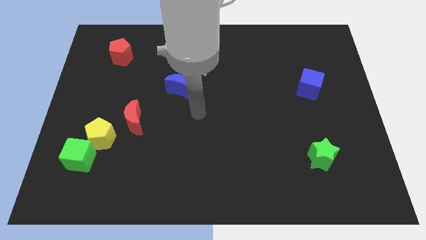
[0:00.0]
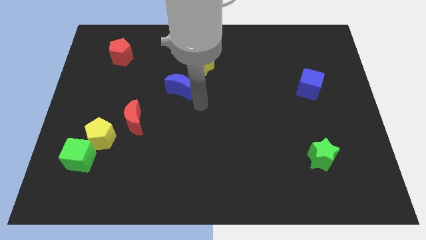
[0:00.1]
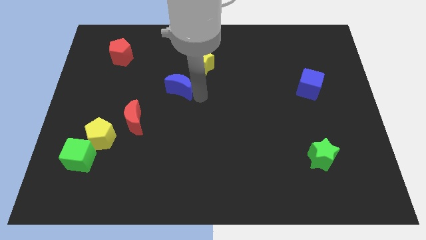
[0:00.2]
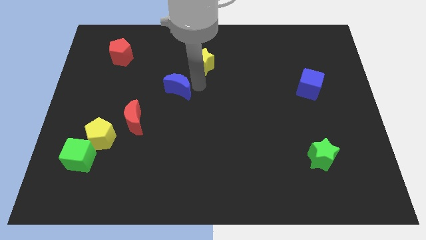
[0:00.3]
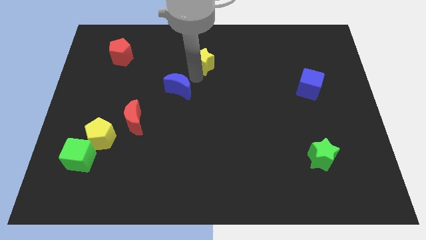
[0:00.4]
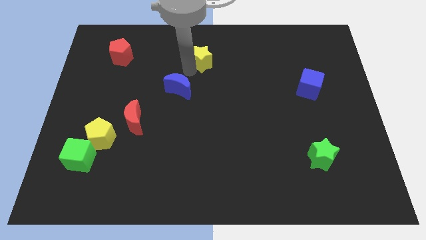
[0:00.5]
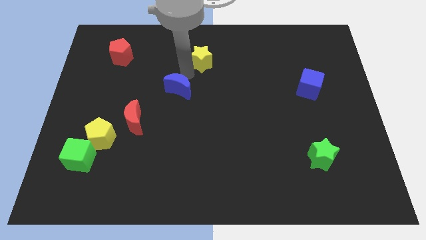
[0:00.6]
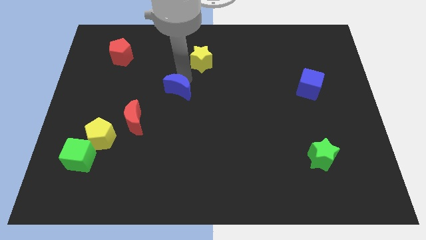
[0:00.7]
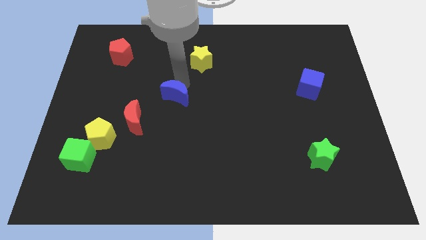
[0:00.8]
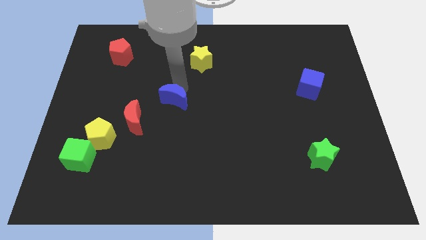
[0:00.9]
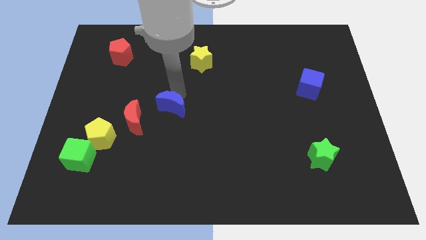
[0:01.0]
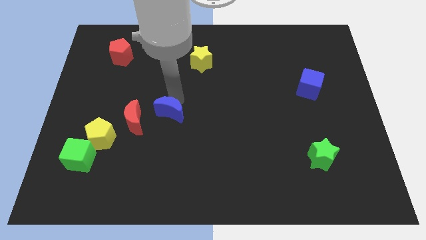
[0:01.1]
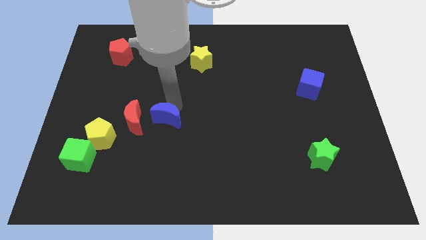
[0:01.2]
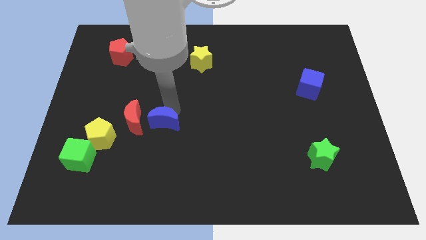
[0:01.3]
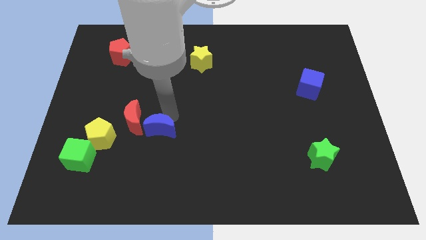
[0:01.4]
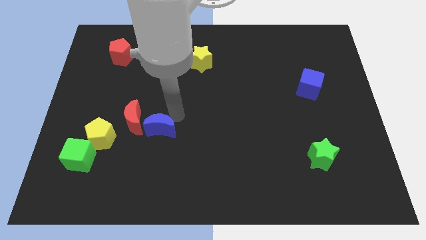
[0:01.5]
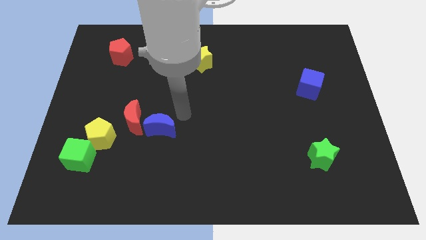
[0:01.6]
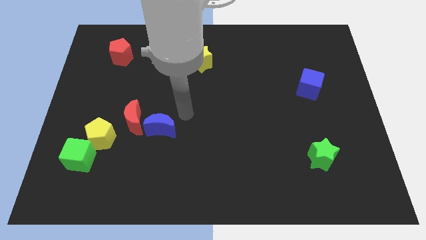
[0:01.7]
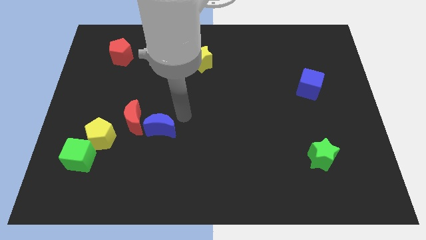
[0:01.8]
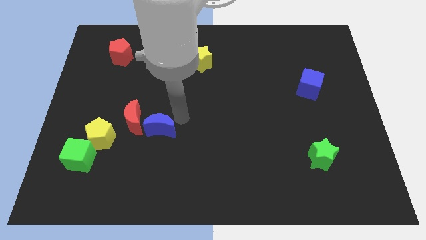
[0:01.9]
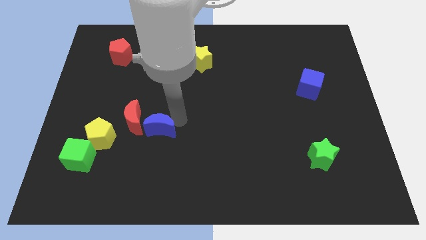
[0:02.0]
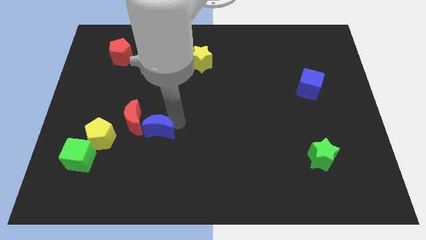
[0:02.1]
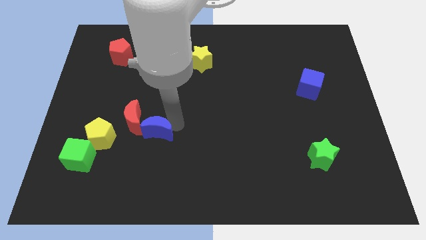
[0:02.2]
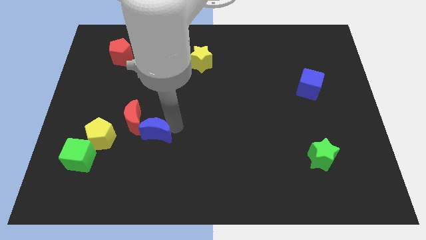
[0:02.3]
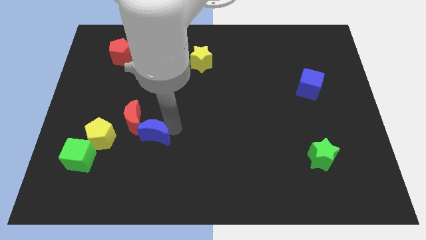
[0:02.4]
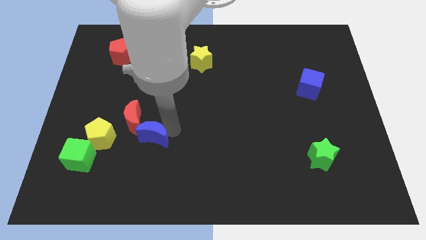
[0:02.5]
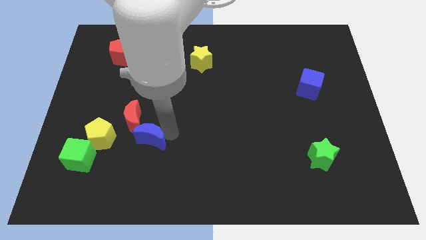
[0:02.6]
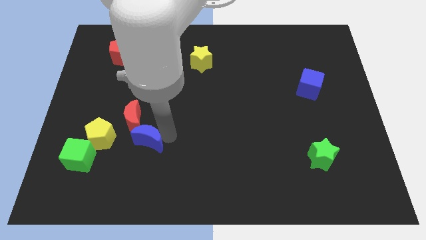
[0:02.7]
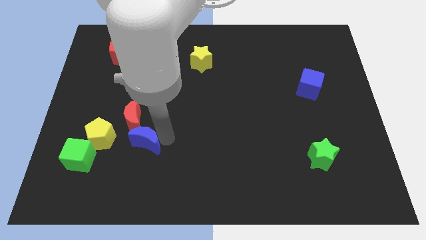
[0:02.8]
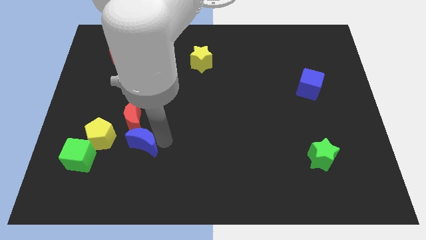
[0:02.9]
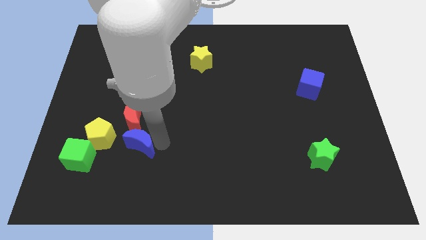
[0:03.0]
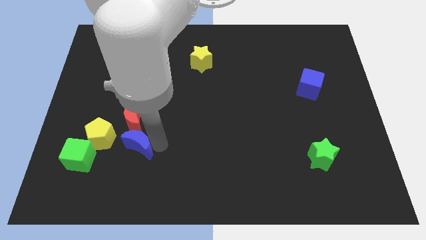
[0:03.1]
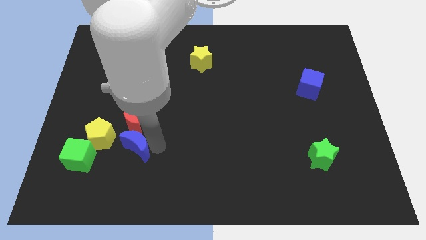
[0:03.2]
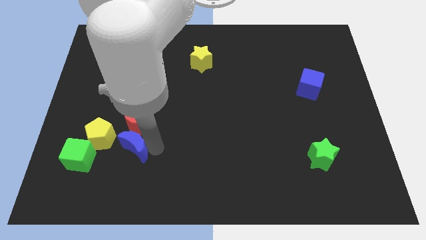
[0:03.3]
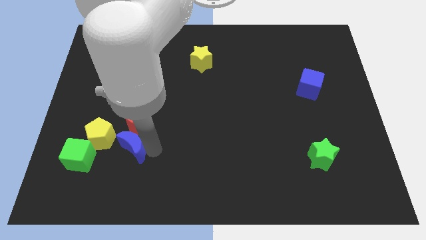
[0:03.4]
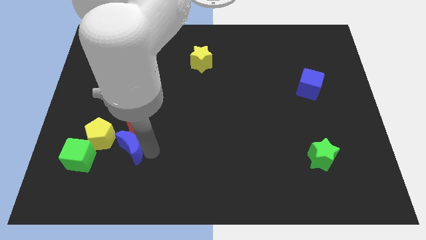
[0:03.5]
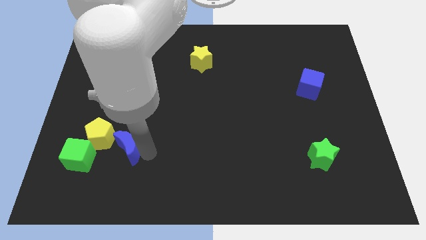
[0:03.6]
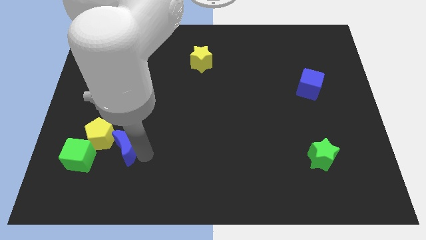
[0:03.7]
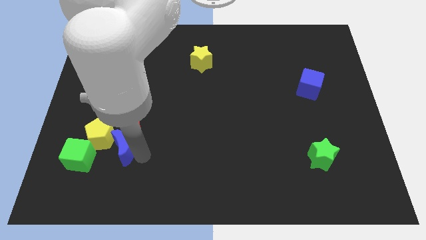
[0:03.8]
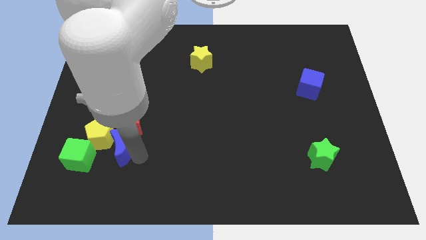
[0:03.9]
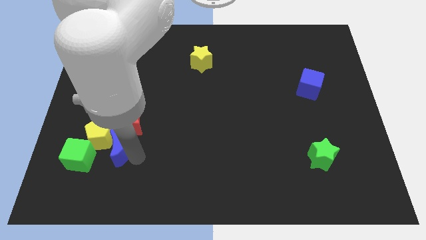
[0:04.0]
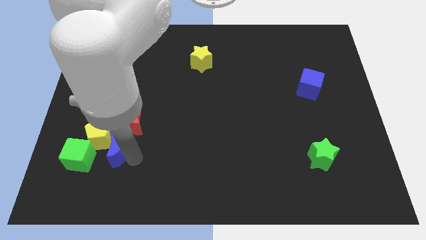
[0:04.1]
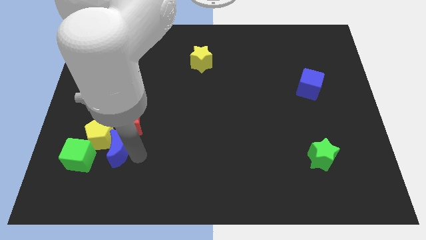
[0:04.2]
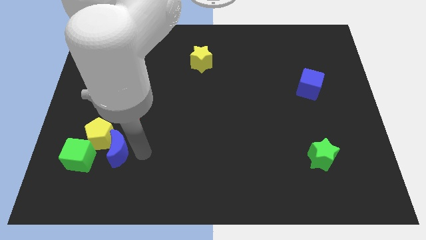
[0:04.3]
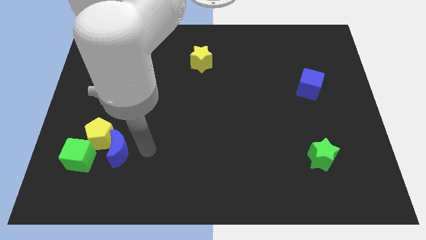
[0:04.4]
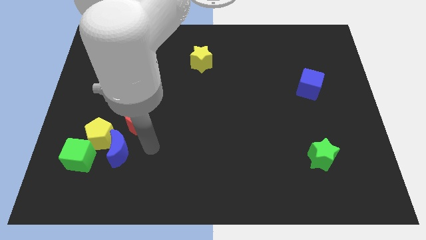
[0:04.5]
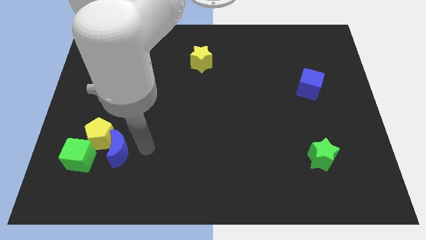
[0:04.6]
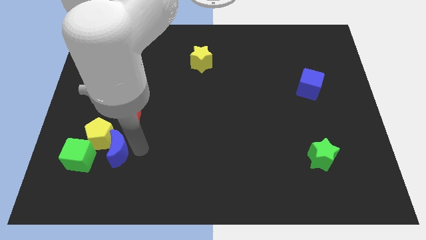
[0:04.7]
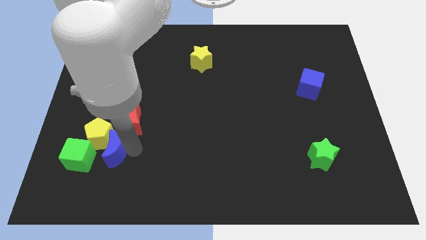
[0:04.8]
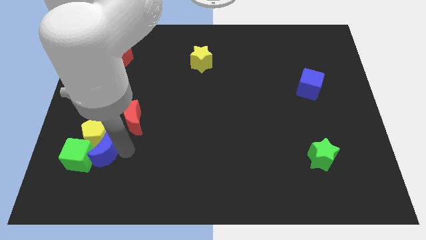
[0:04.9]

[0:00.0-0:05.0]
move the blue moon close to the green cube

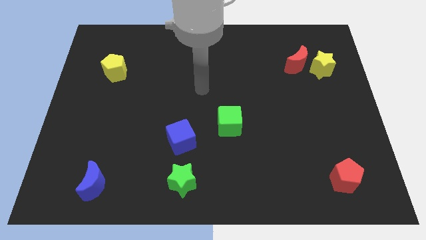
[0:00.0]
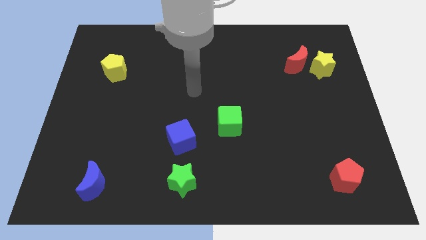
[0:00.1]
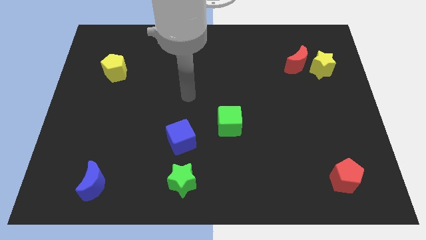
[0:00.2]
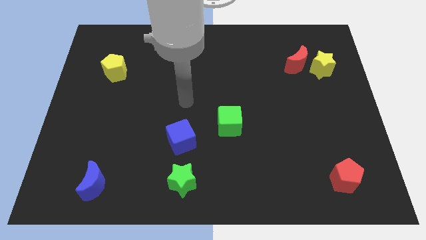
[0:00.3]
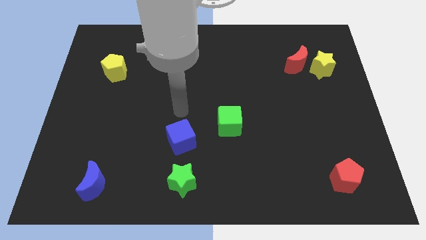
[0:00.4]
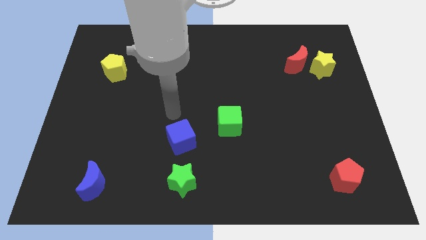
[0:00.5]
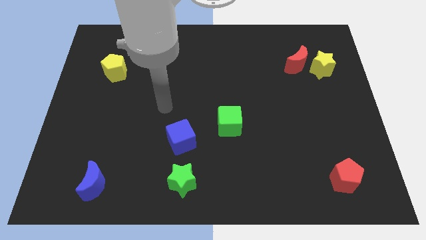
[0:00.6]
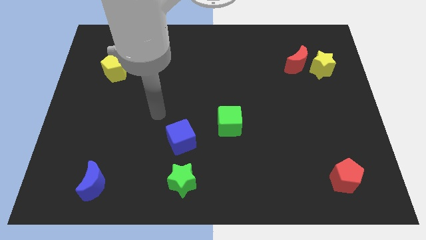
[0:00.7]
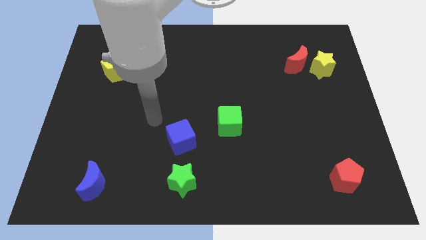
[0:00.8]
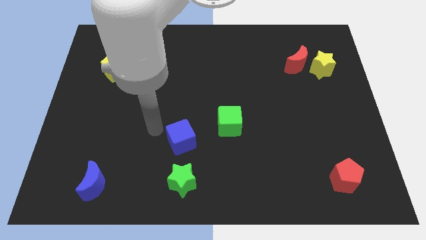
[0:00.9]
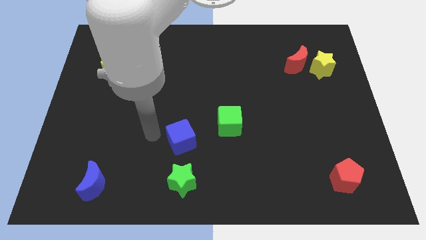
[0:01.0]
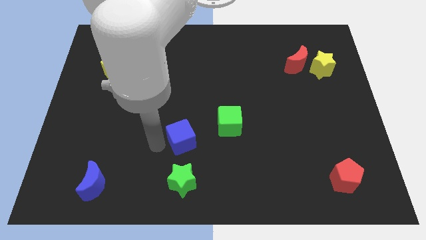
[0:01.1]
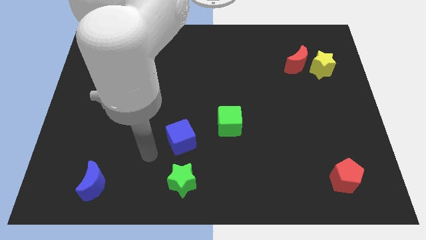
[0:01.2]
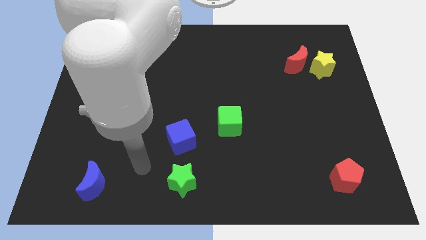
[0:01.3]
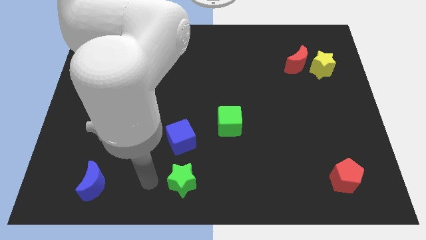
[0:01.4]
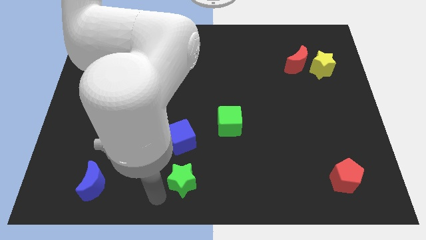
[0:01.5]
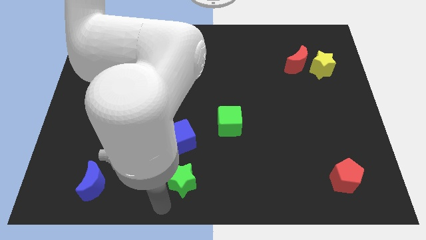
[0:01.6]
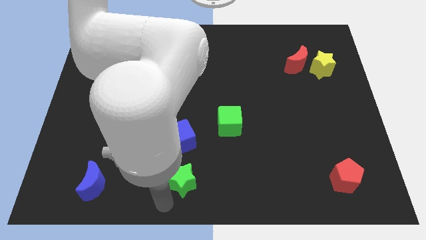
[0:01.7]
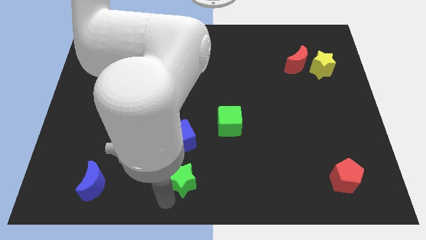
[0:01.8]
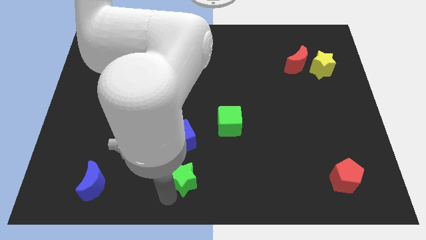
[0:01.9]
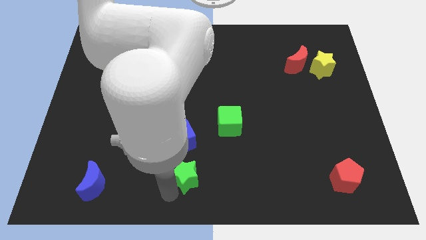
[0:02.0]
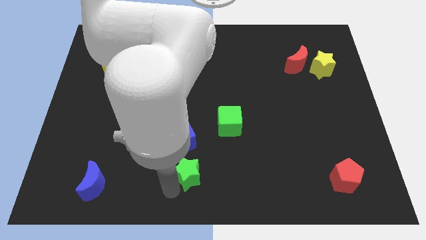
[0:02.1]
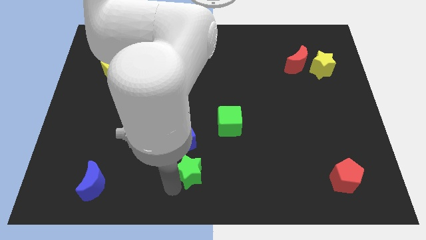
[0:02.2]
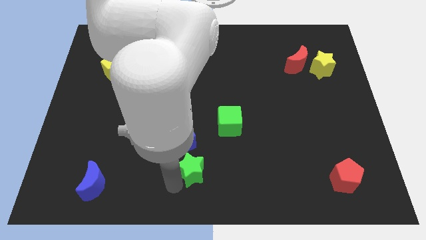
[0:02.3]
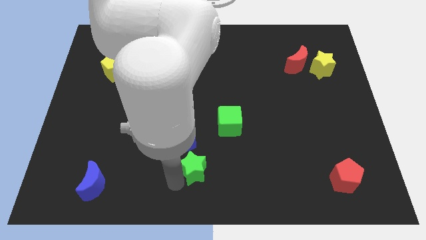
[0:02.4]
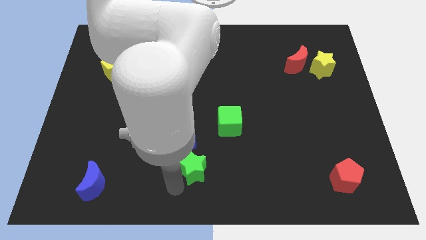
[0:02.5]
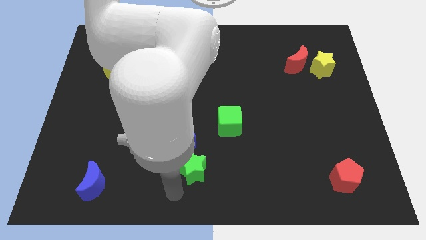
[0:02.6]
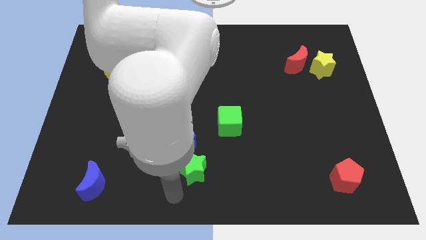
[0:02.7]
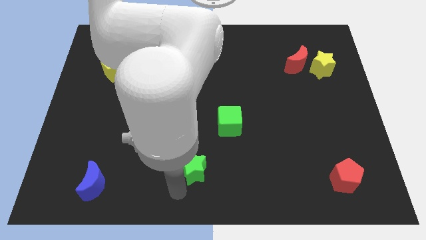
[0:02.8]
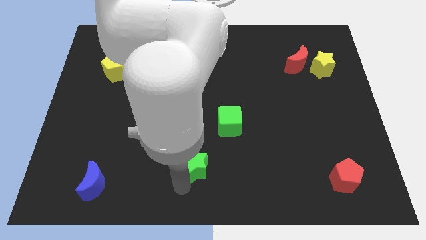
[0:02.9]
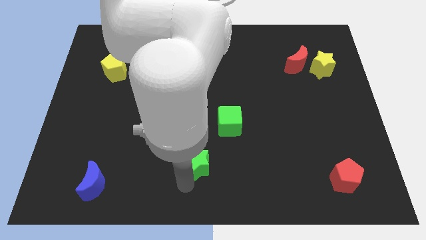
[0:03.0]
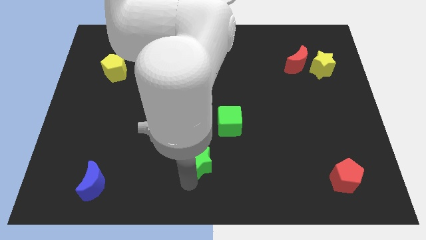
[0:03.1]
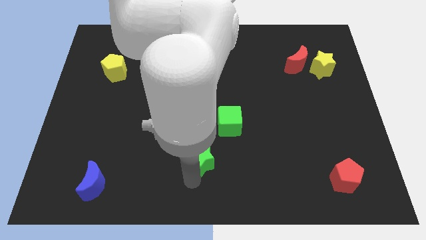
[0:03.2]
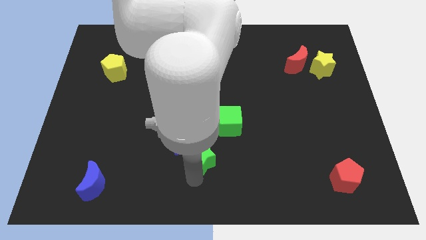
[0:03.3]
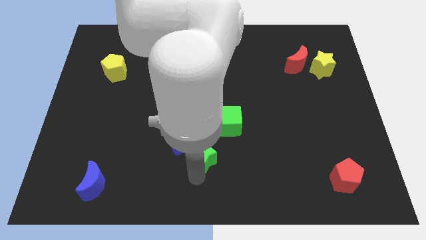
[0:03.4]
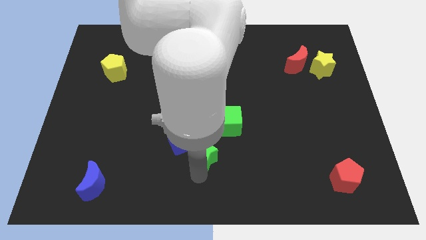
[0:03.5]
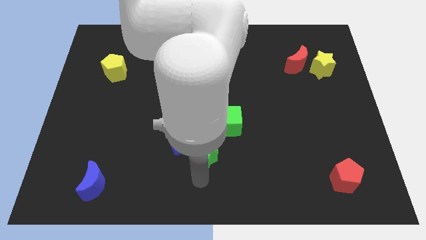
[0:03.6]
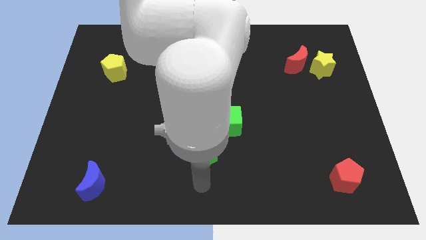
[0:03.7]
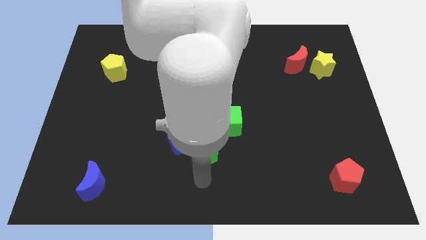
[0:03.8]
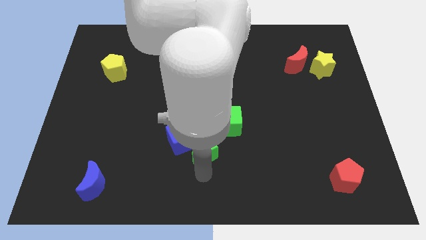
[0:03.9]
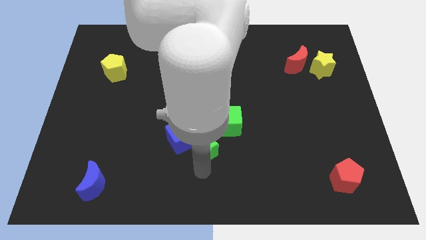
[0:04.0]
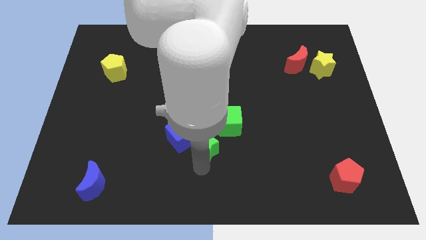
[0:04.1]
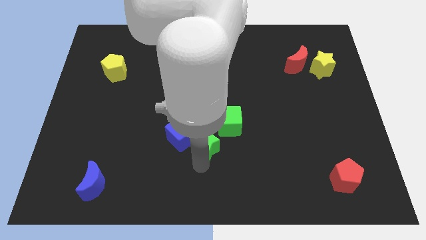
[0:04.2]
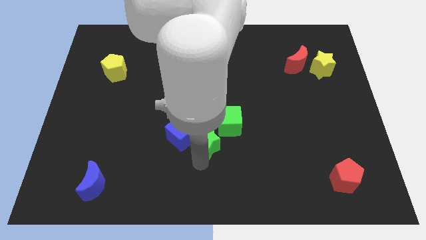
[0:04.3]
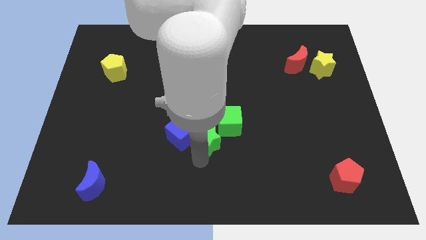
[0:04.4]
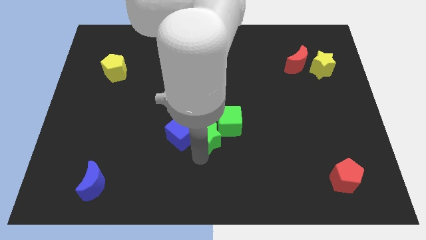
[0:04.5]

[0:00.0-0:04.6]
push the green star towards the green cube
